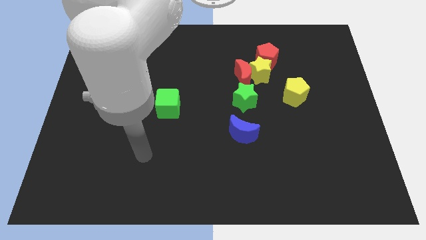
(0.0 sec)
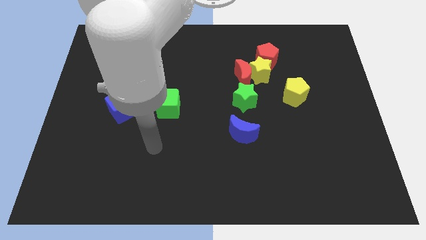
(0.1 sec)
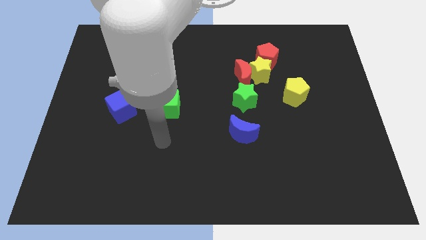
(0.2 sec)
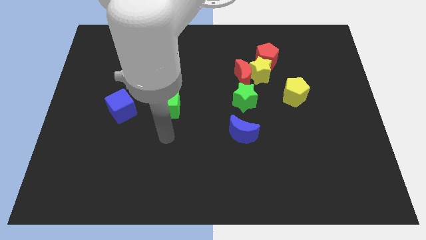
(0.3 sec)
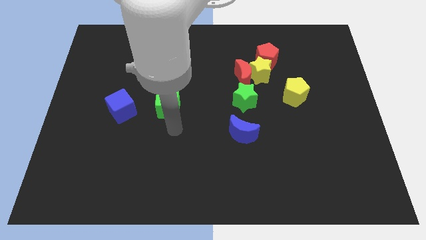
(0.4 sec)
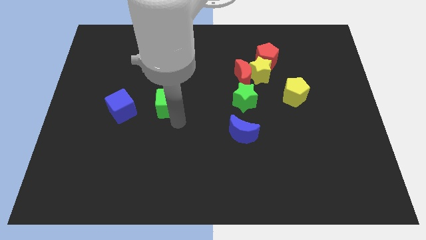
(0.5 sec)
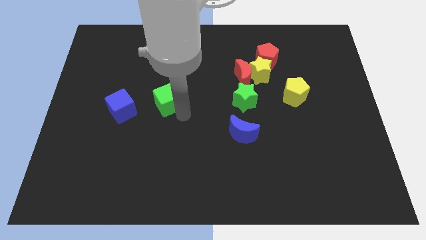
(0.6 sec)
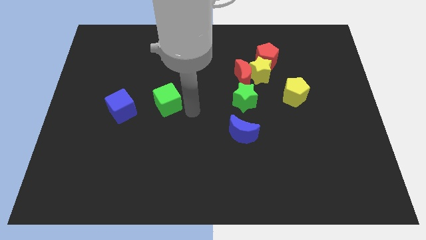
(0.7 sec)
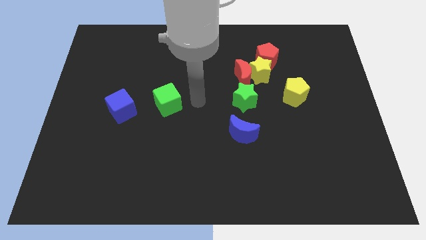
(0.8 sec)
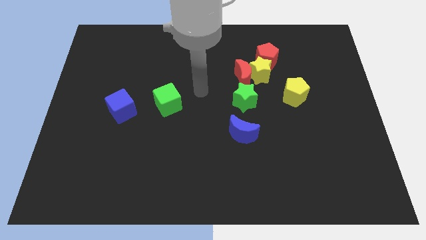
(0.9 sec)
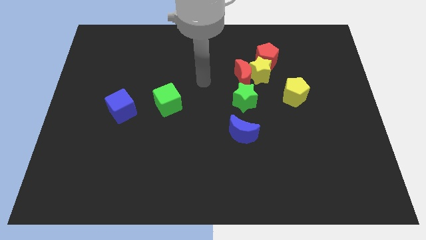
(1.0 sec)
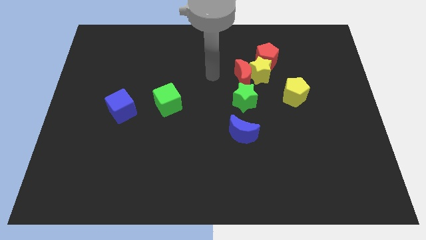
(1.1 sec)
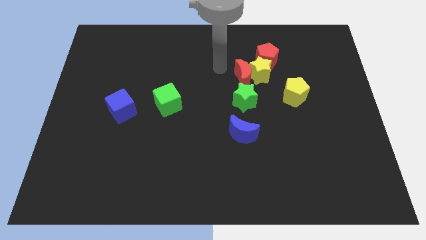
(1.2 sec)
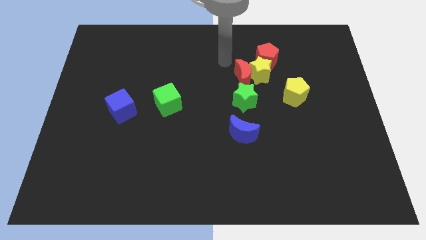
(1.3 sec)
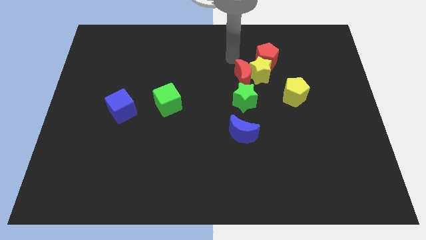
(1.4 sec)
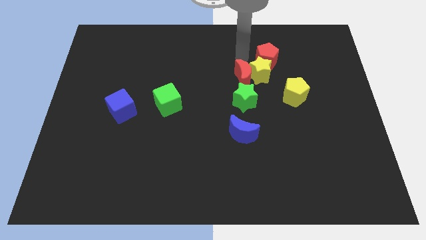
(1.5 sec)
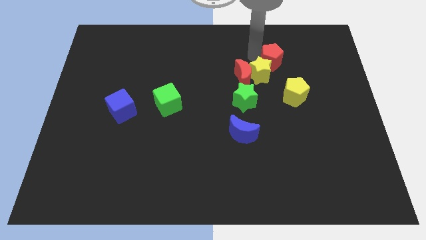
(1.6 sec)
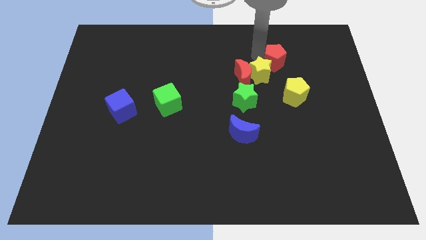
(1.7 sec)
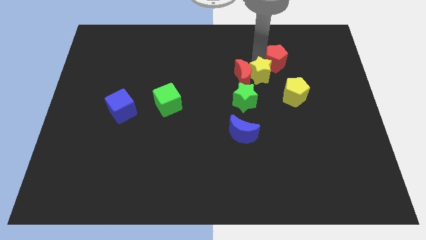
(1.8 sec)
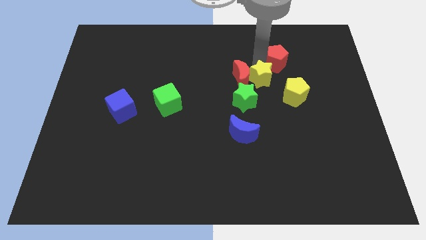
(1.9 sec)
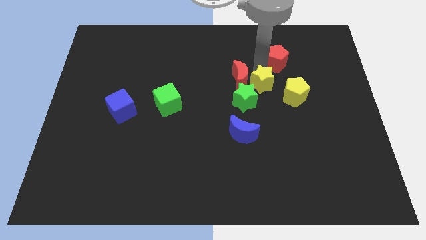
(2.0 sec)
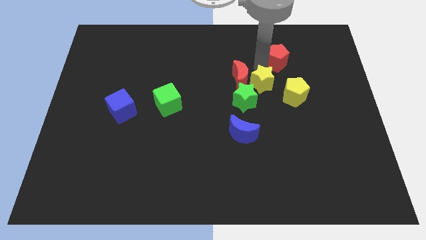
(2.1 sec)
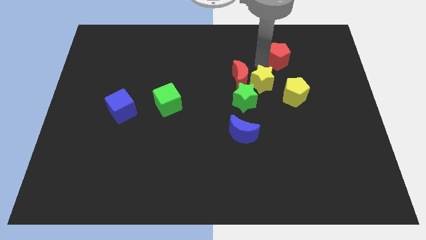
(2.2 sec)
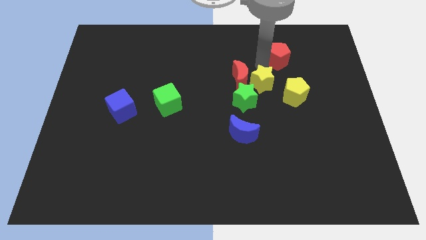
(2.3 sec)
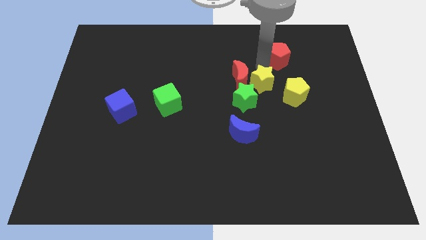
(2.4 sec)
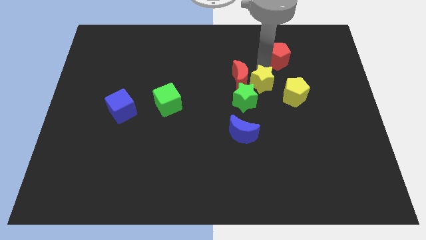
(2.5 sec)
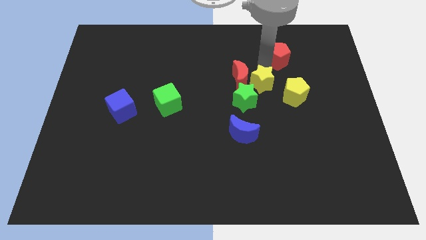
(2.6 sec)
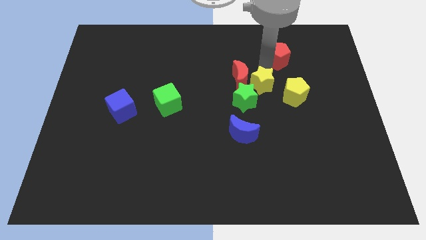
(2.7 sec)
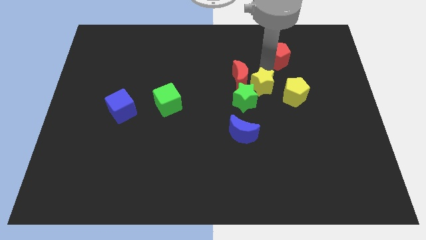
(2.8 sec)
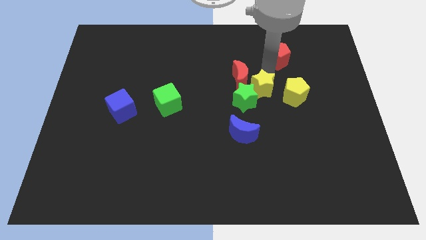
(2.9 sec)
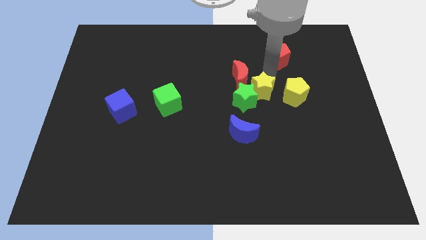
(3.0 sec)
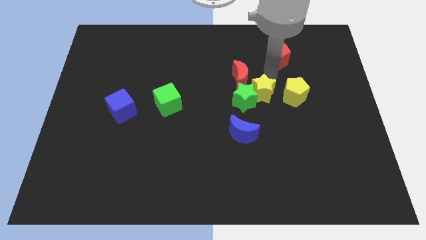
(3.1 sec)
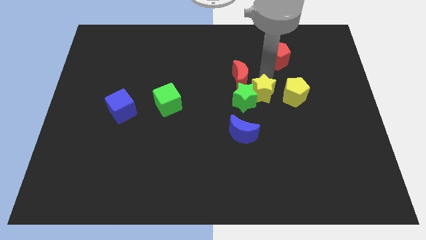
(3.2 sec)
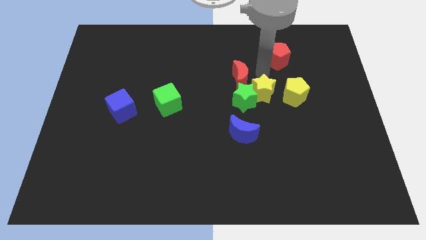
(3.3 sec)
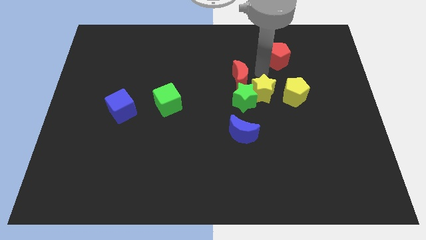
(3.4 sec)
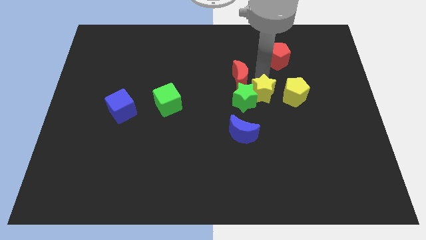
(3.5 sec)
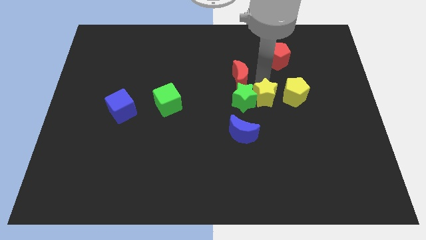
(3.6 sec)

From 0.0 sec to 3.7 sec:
slightly push the yellow star down

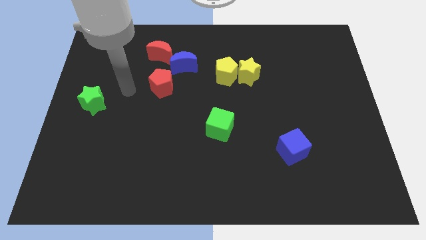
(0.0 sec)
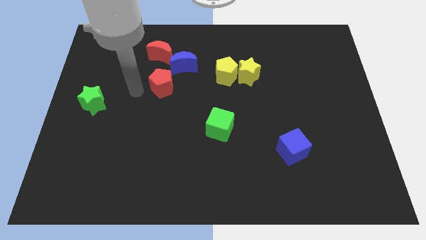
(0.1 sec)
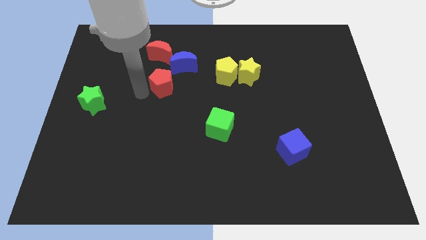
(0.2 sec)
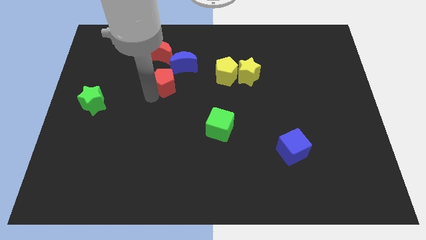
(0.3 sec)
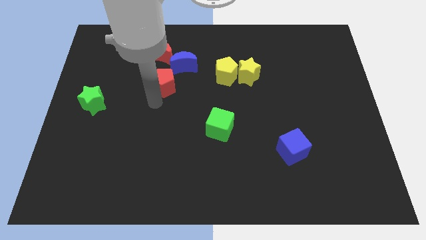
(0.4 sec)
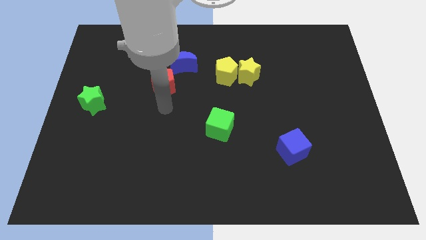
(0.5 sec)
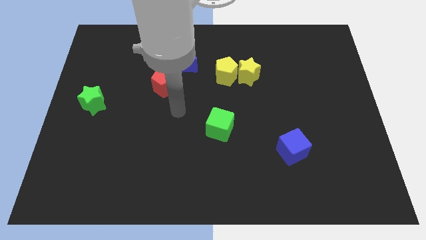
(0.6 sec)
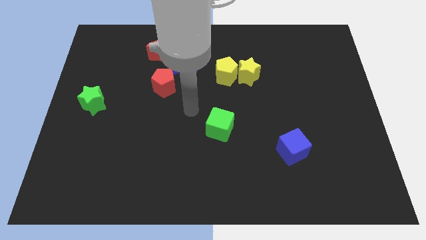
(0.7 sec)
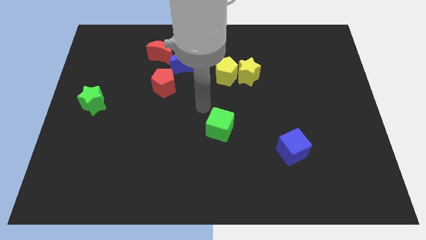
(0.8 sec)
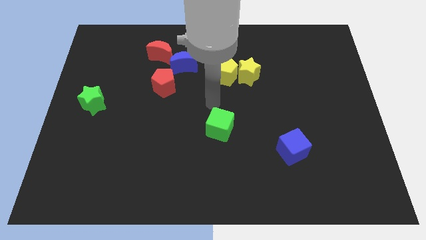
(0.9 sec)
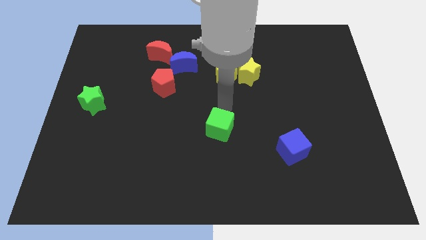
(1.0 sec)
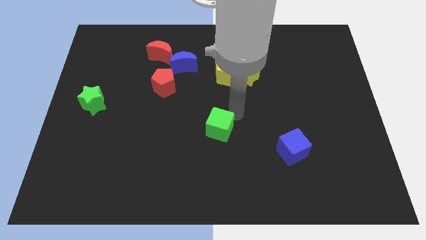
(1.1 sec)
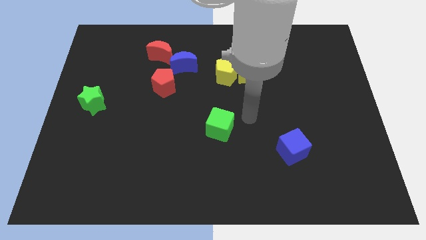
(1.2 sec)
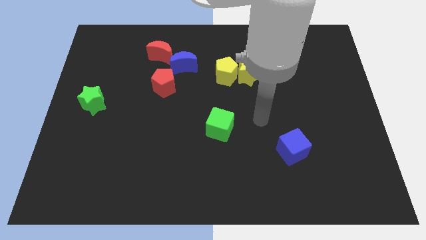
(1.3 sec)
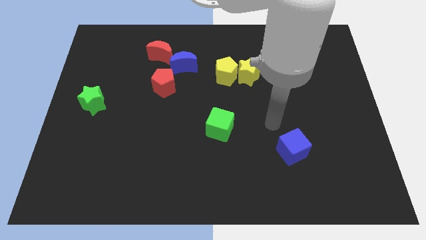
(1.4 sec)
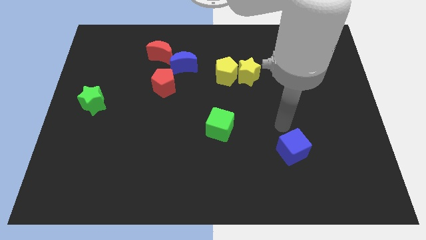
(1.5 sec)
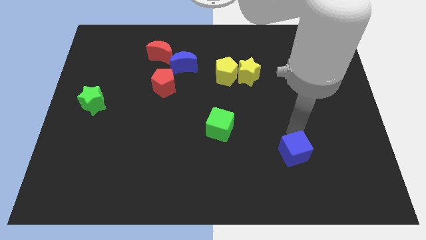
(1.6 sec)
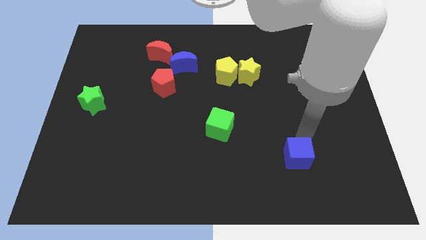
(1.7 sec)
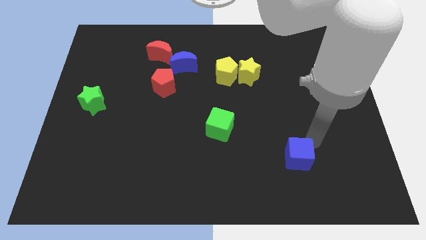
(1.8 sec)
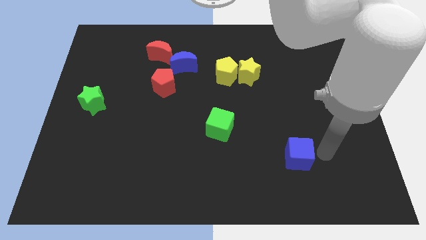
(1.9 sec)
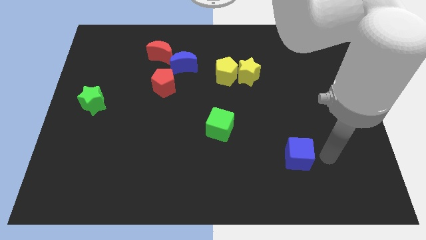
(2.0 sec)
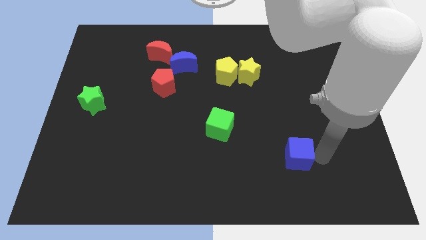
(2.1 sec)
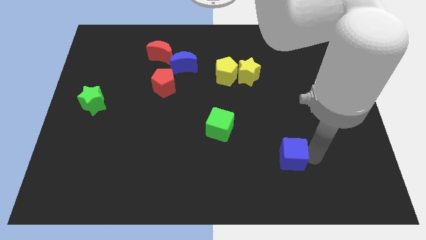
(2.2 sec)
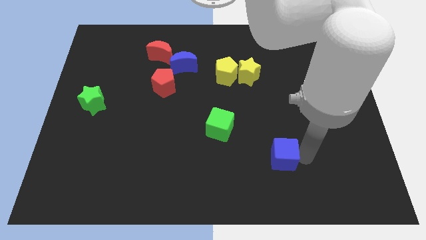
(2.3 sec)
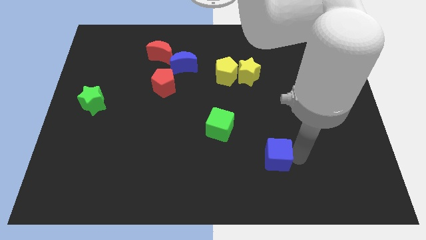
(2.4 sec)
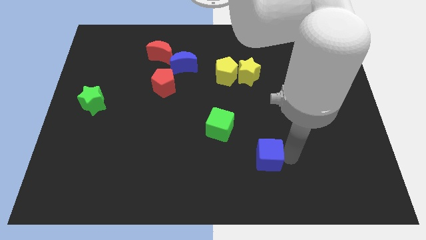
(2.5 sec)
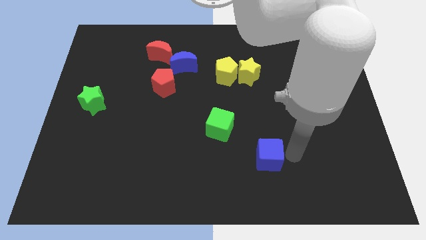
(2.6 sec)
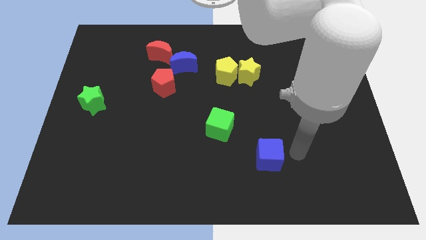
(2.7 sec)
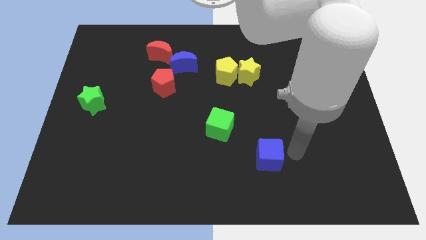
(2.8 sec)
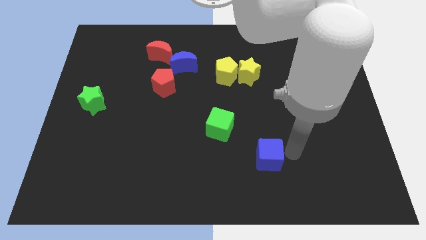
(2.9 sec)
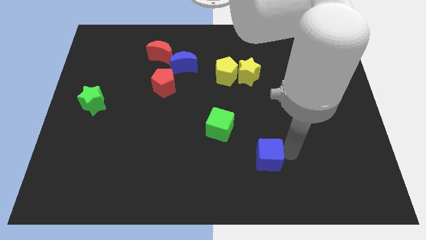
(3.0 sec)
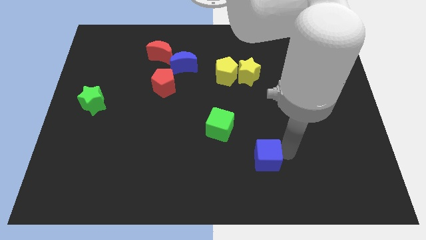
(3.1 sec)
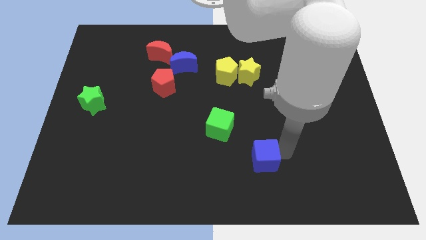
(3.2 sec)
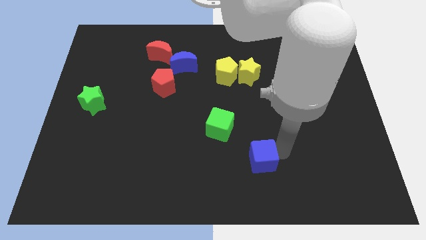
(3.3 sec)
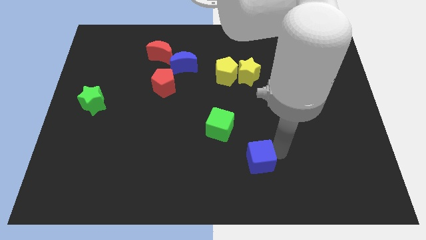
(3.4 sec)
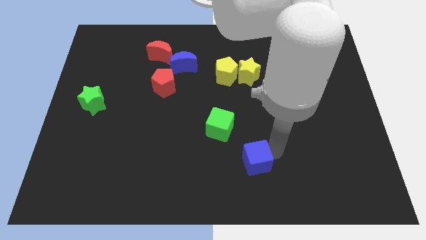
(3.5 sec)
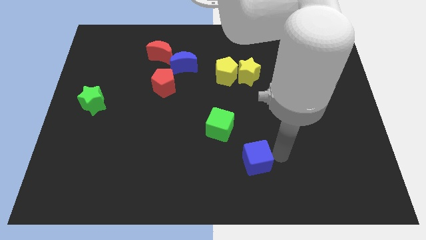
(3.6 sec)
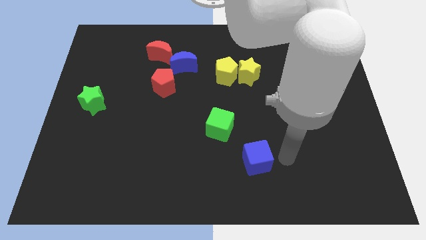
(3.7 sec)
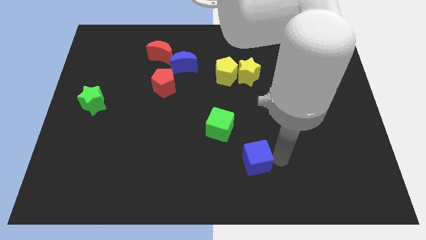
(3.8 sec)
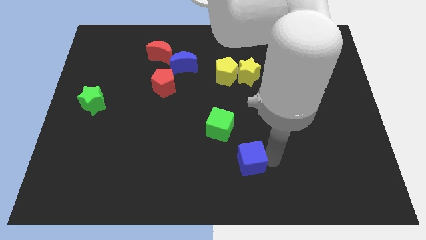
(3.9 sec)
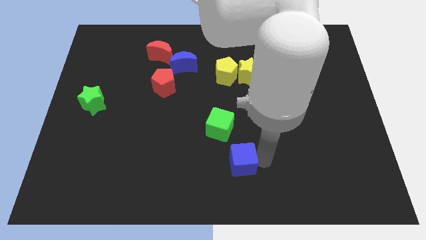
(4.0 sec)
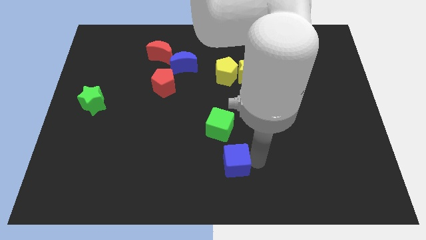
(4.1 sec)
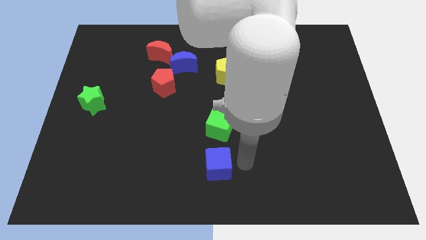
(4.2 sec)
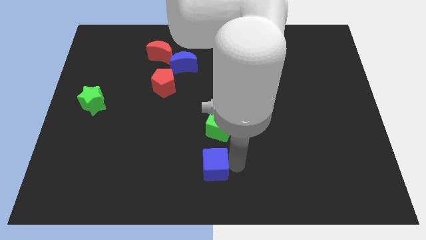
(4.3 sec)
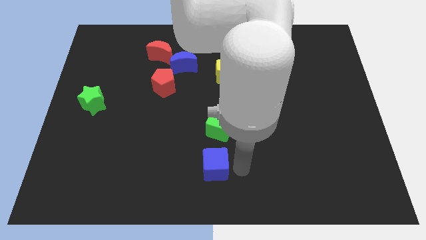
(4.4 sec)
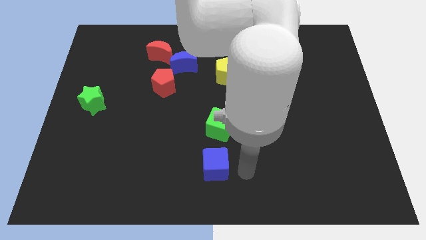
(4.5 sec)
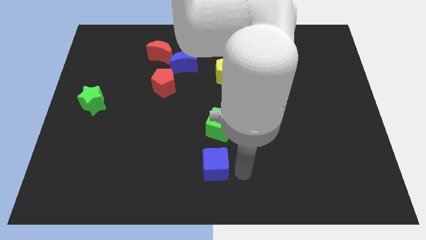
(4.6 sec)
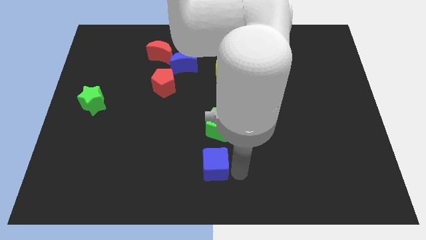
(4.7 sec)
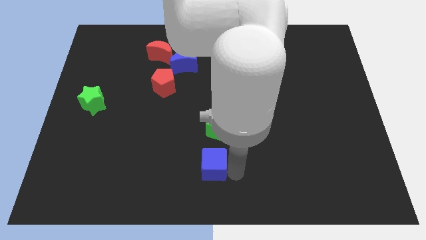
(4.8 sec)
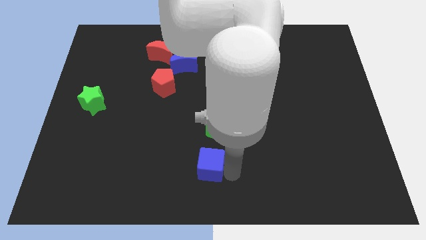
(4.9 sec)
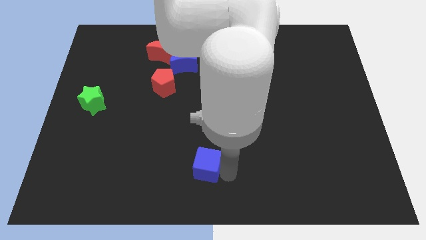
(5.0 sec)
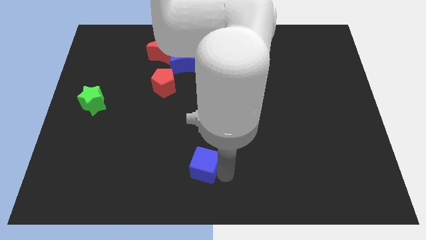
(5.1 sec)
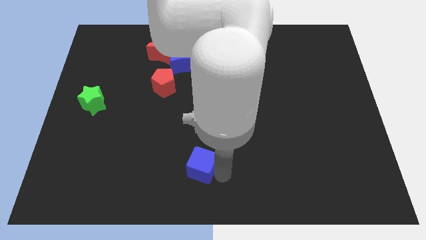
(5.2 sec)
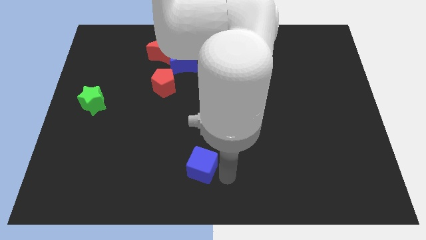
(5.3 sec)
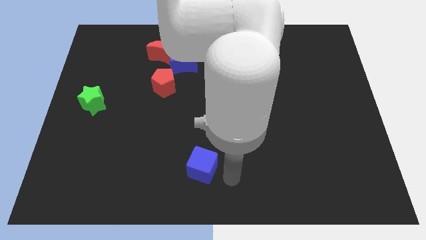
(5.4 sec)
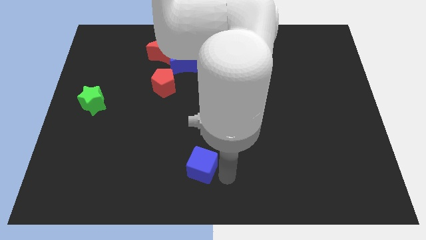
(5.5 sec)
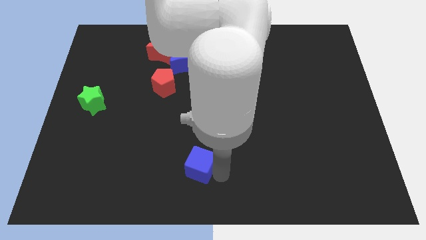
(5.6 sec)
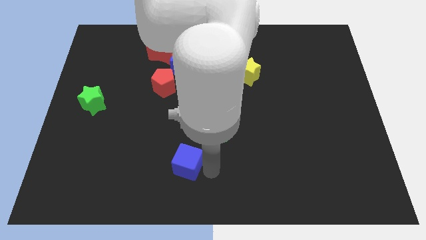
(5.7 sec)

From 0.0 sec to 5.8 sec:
slide the blue cube to the left
